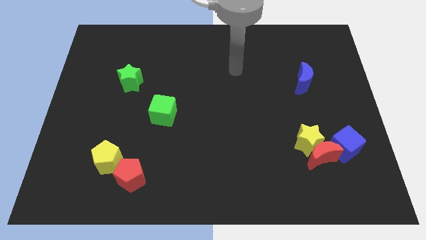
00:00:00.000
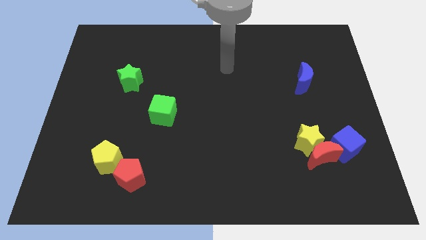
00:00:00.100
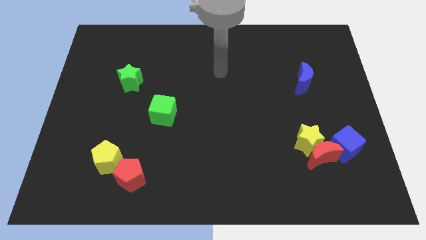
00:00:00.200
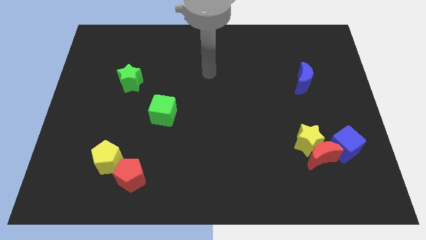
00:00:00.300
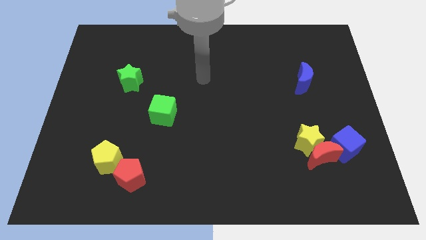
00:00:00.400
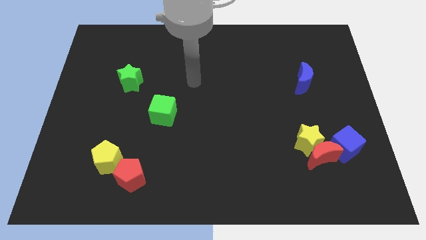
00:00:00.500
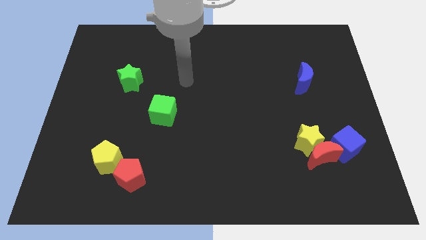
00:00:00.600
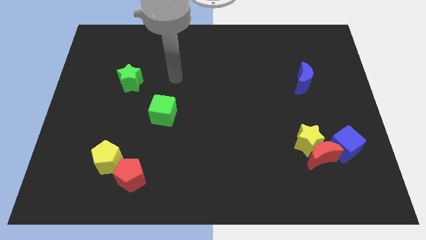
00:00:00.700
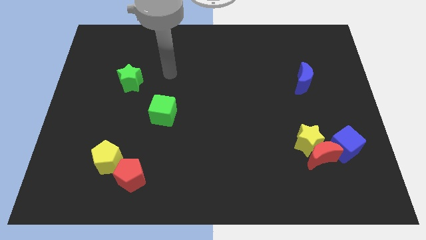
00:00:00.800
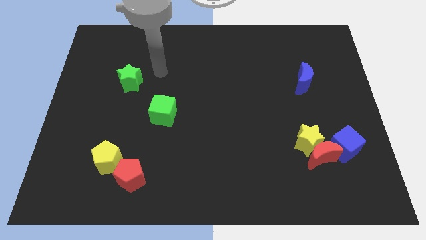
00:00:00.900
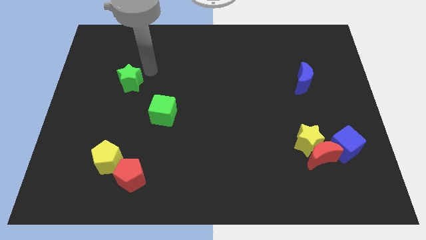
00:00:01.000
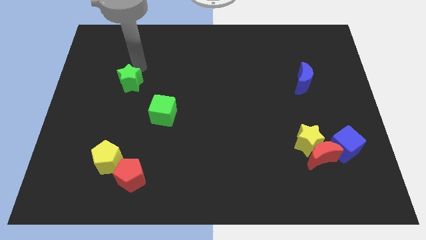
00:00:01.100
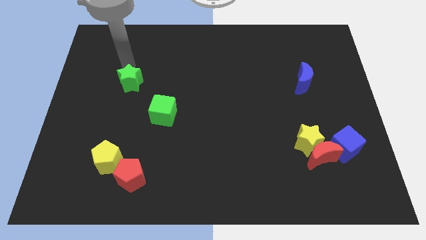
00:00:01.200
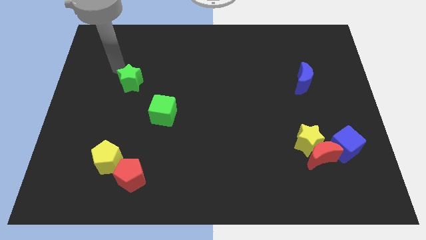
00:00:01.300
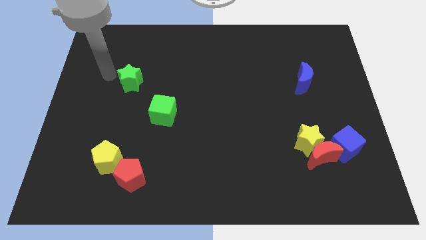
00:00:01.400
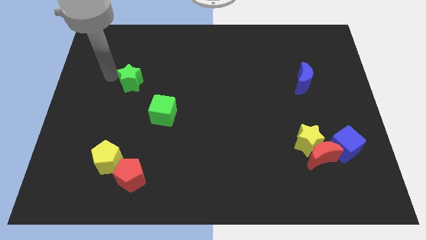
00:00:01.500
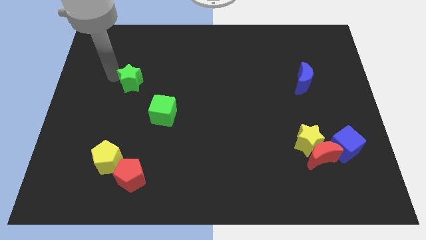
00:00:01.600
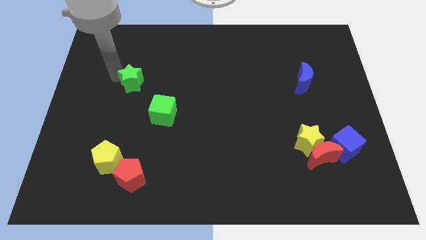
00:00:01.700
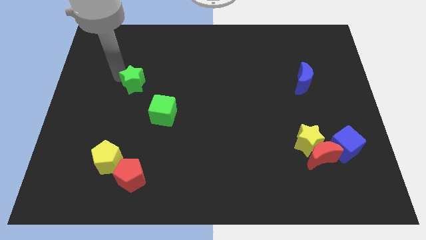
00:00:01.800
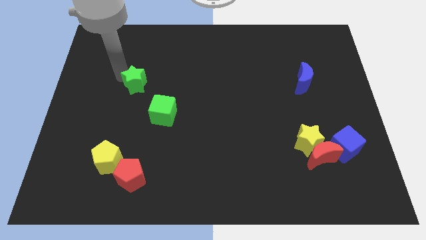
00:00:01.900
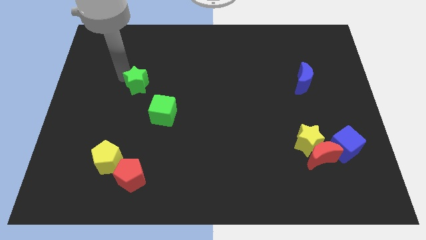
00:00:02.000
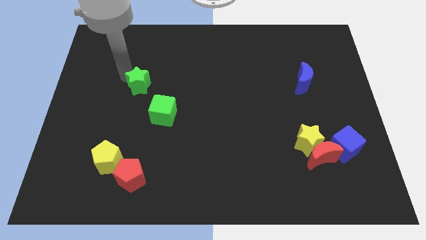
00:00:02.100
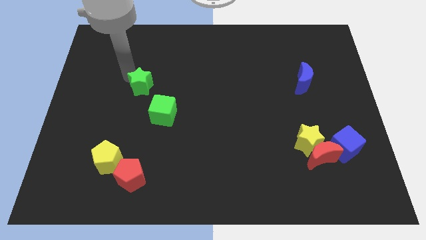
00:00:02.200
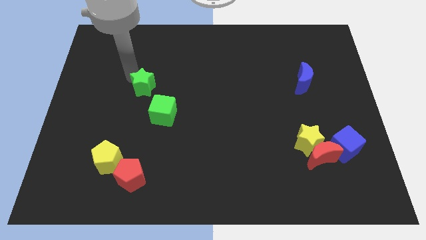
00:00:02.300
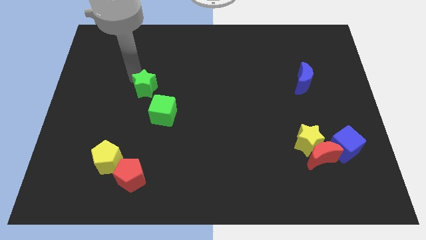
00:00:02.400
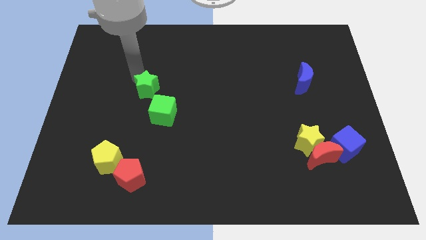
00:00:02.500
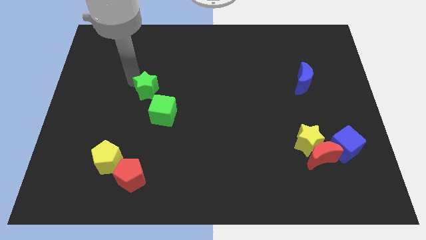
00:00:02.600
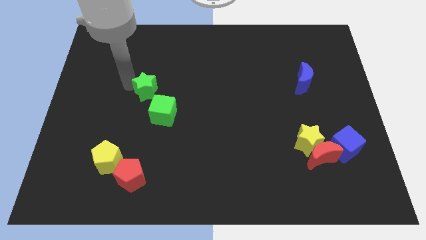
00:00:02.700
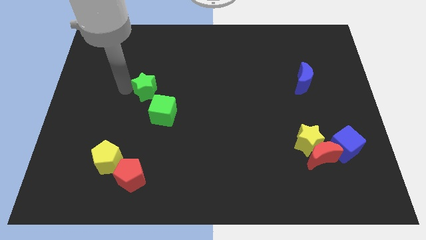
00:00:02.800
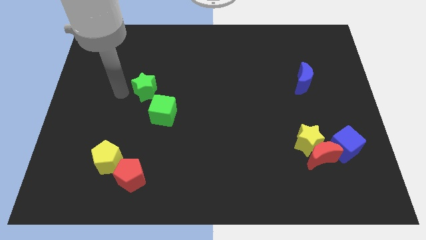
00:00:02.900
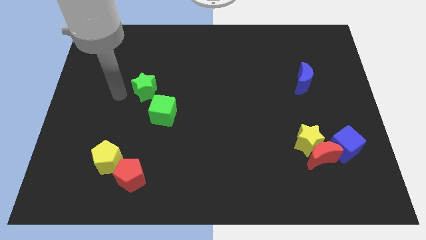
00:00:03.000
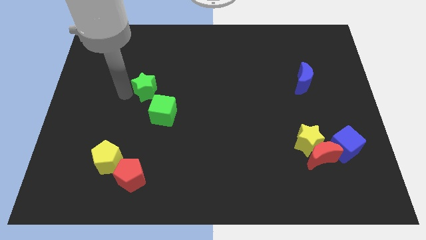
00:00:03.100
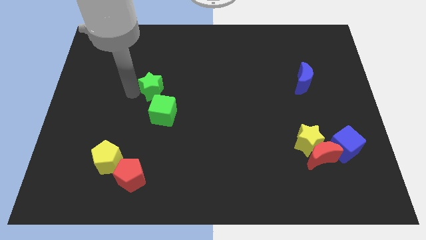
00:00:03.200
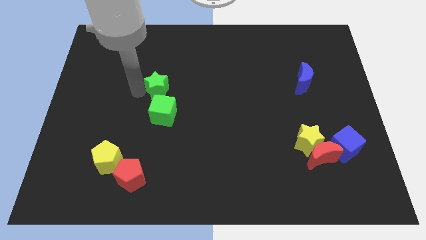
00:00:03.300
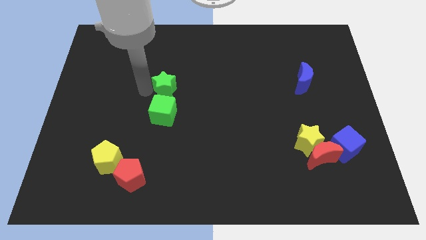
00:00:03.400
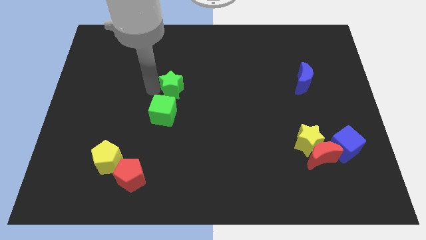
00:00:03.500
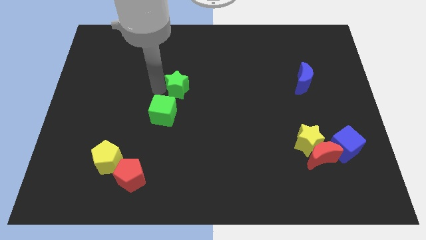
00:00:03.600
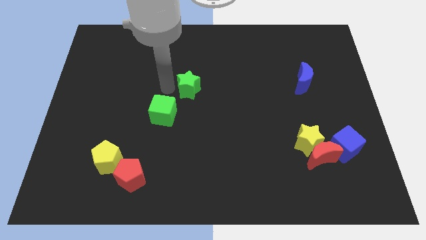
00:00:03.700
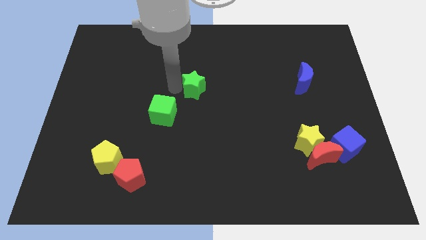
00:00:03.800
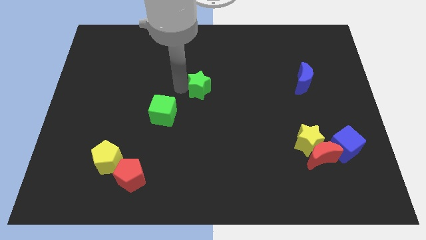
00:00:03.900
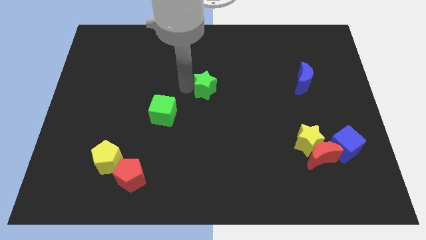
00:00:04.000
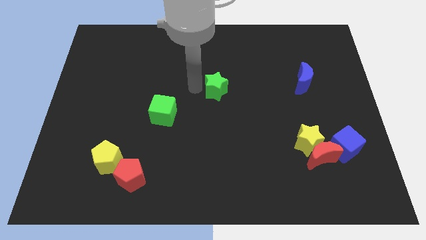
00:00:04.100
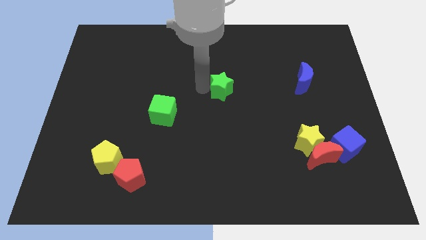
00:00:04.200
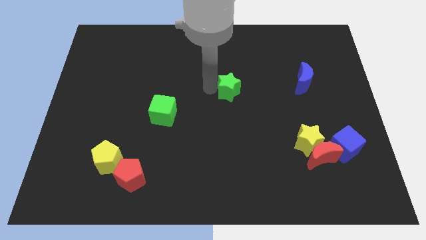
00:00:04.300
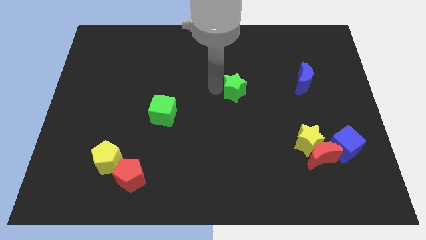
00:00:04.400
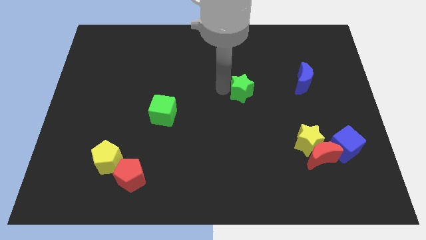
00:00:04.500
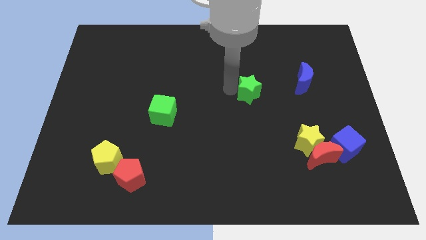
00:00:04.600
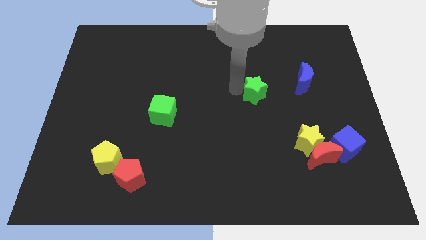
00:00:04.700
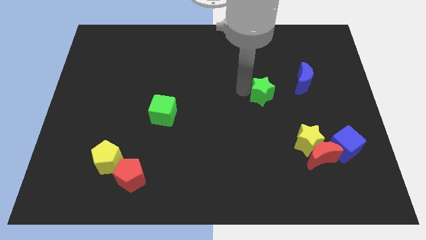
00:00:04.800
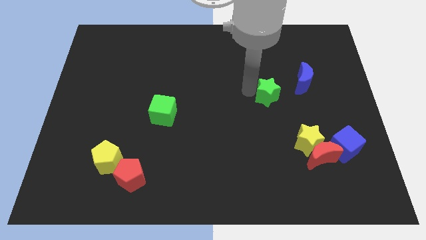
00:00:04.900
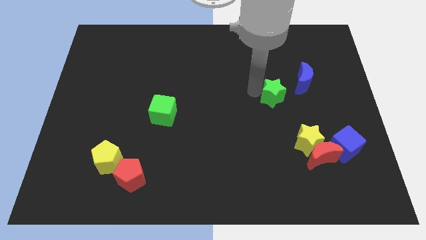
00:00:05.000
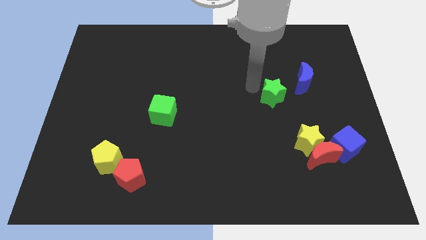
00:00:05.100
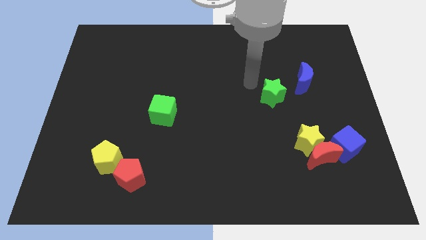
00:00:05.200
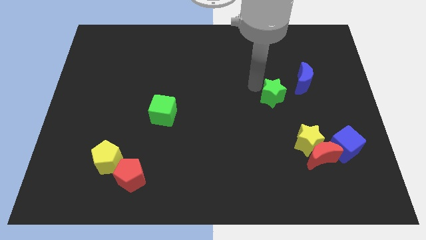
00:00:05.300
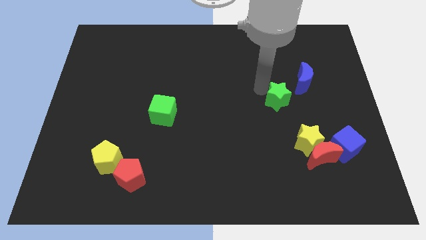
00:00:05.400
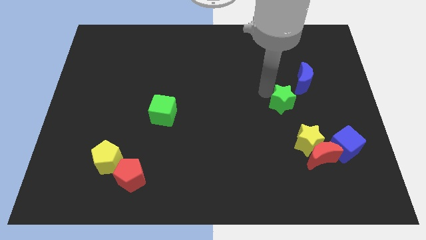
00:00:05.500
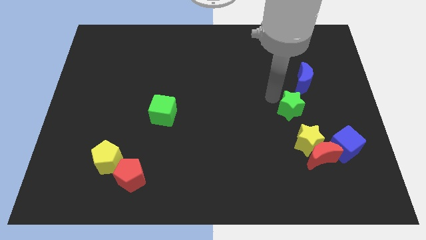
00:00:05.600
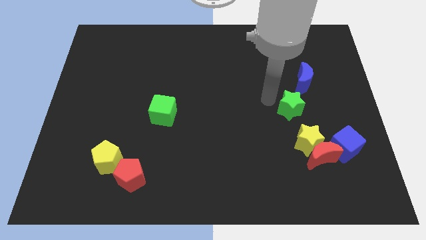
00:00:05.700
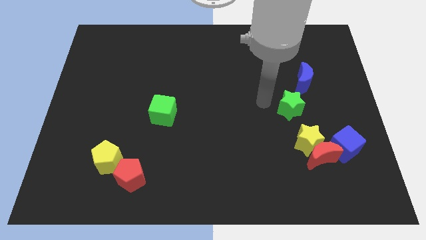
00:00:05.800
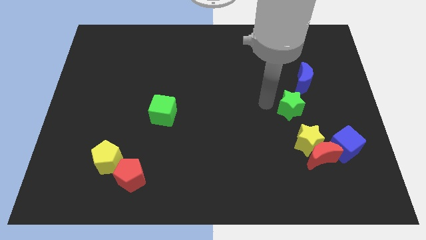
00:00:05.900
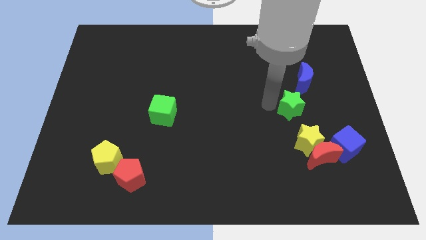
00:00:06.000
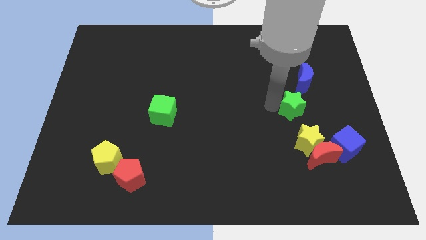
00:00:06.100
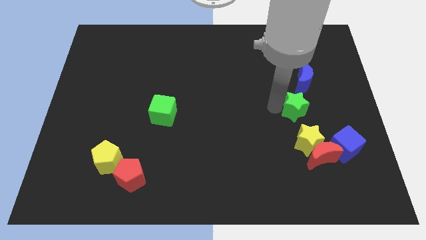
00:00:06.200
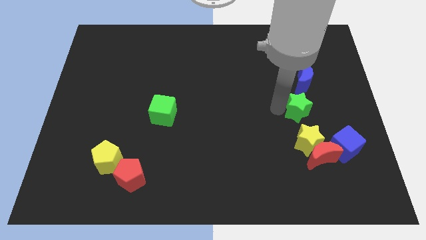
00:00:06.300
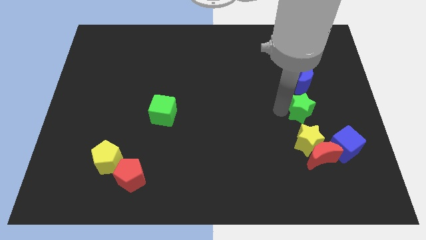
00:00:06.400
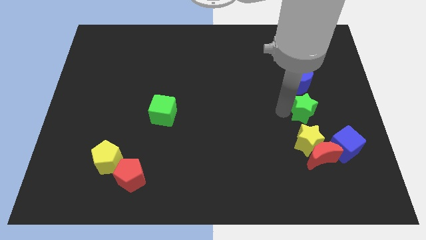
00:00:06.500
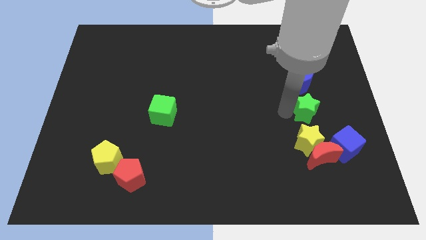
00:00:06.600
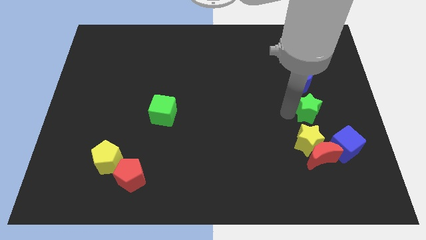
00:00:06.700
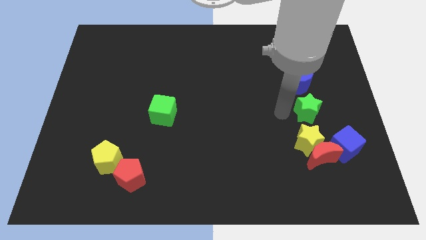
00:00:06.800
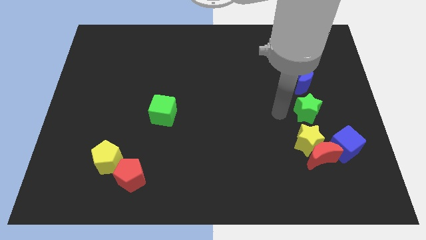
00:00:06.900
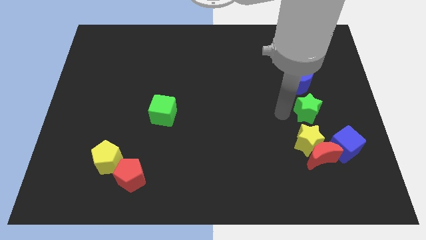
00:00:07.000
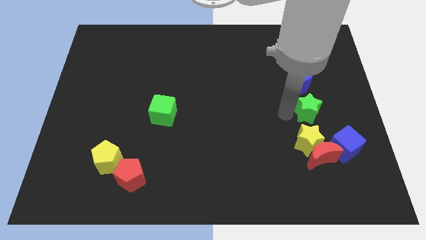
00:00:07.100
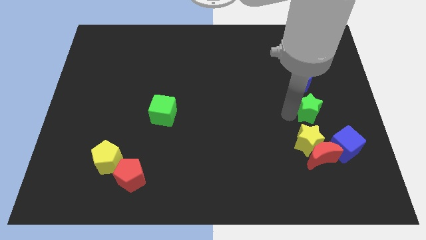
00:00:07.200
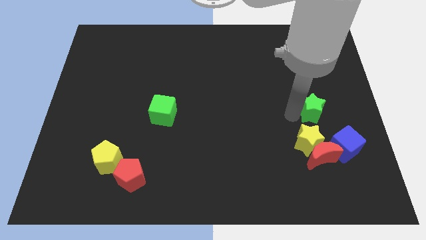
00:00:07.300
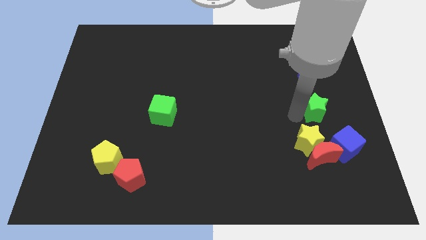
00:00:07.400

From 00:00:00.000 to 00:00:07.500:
slide the green star to the top of the blue cube
